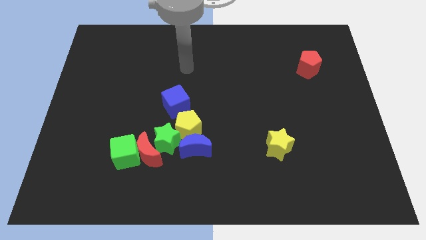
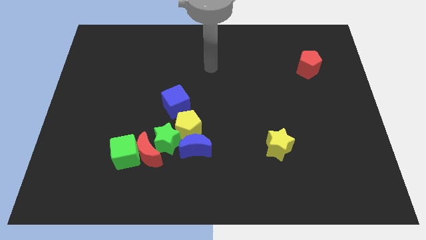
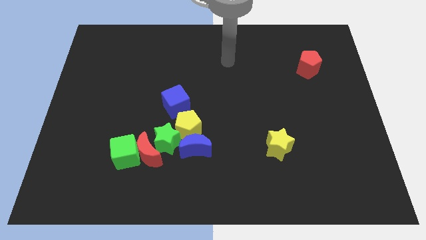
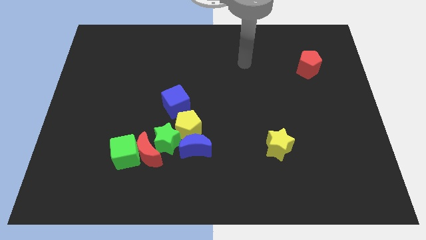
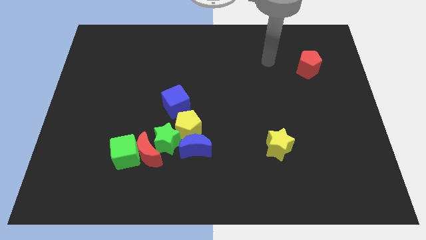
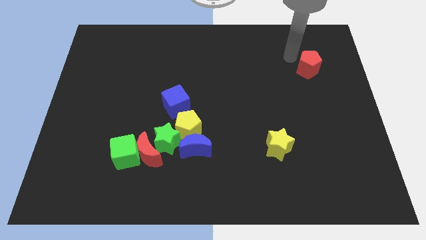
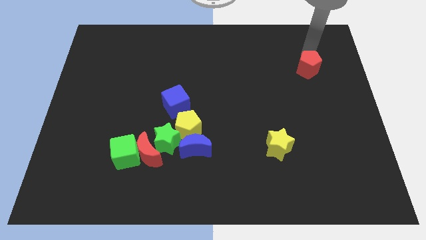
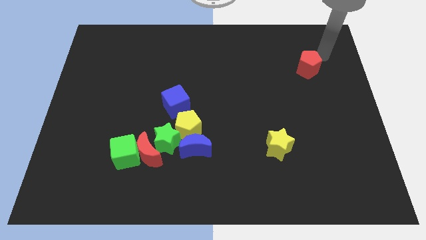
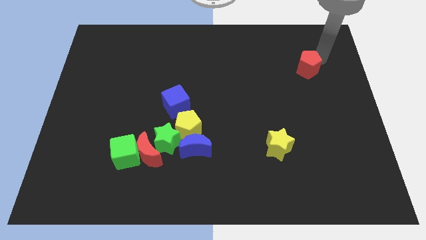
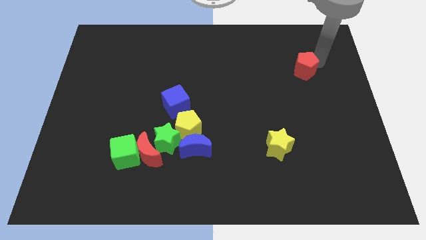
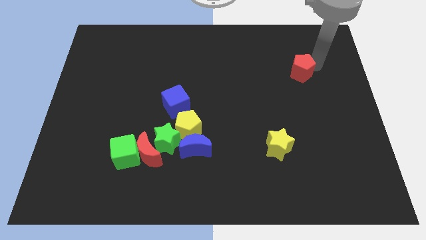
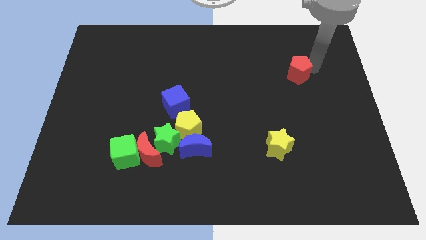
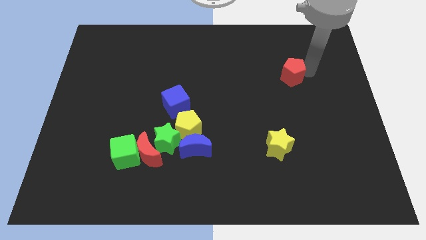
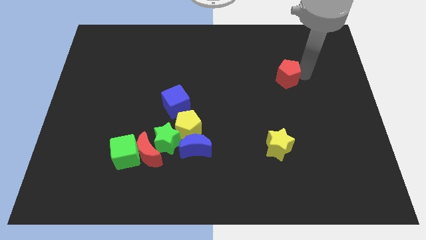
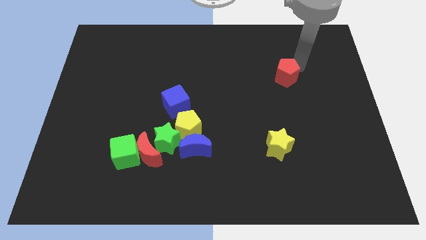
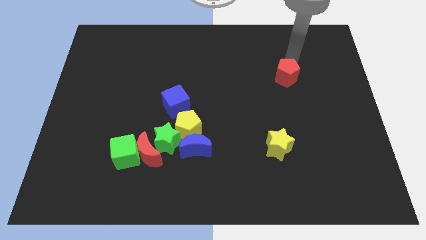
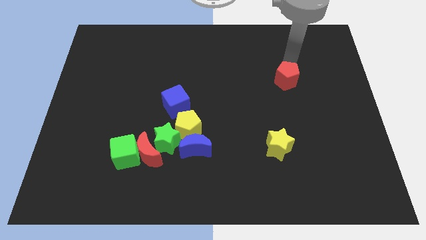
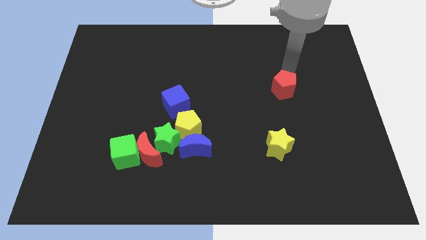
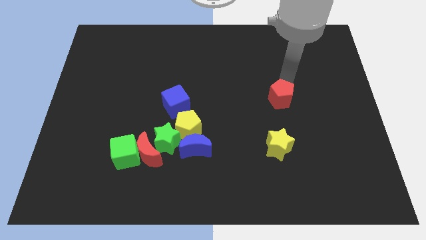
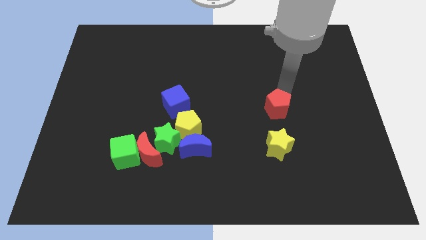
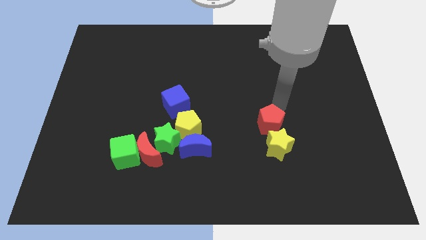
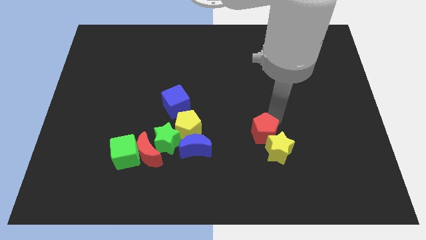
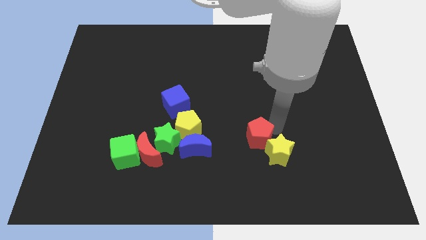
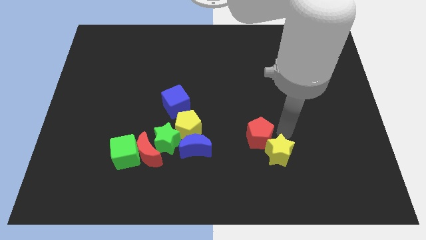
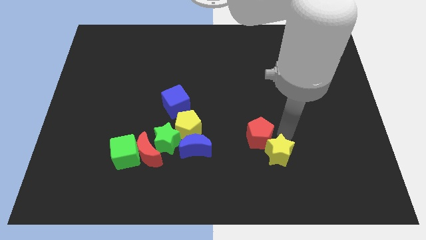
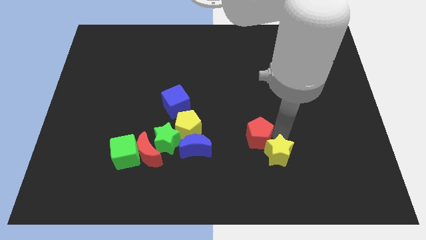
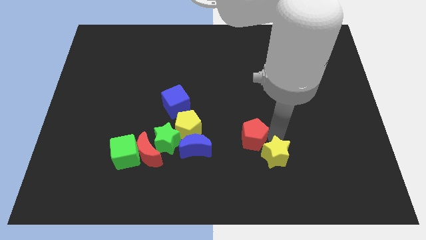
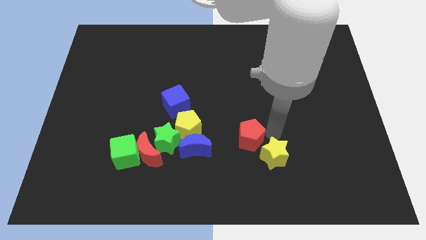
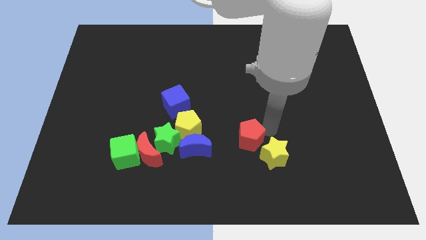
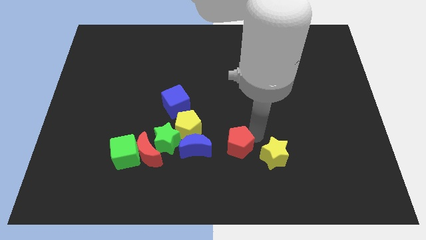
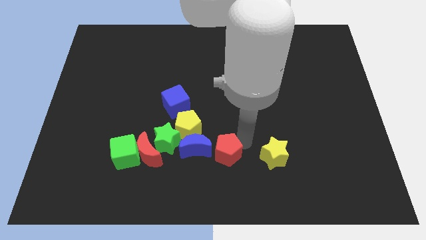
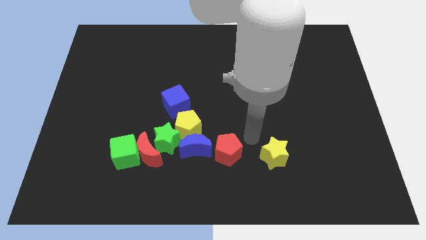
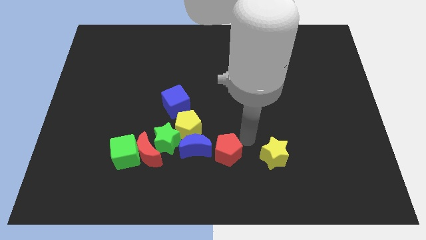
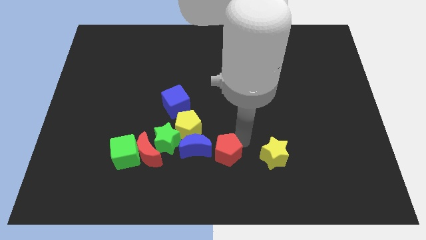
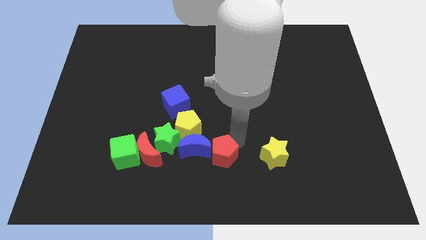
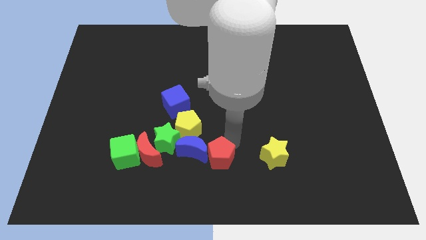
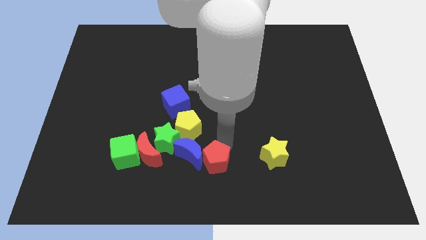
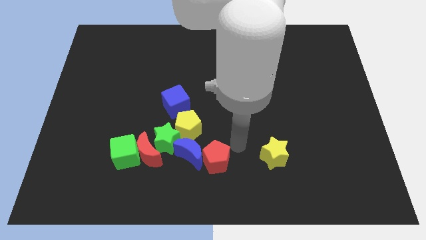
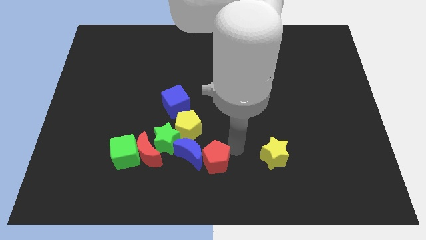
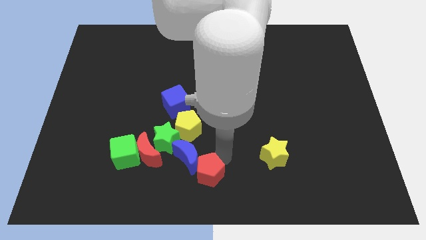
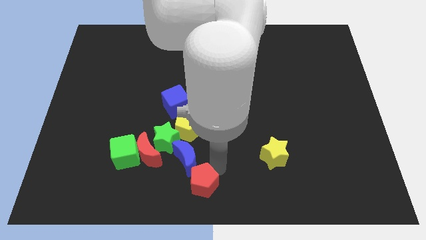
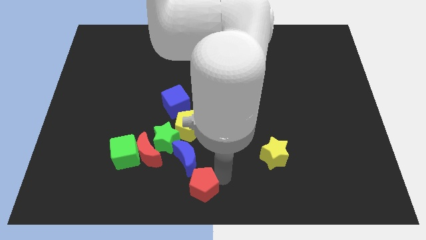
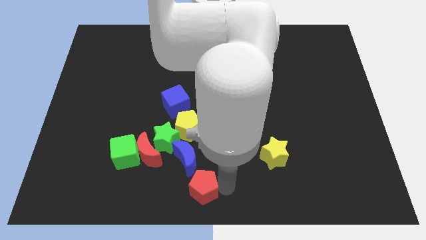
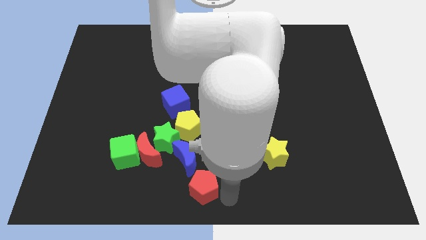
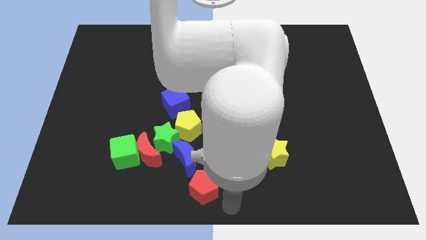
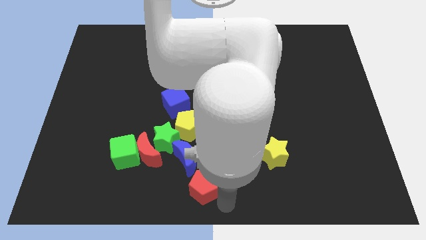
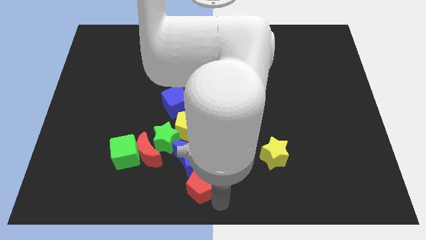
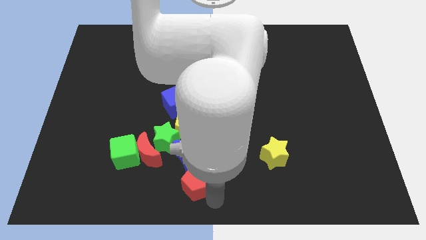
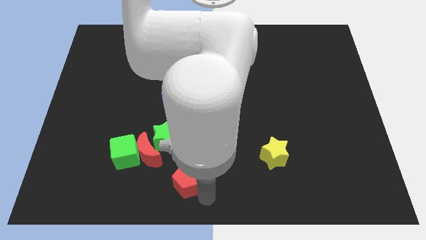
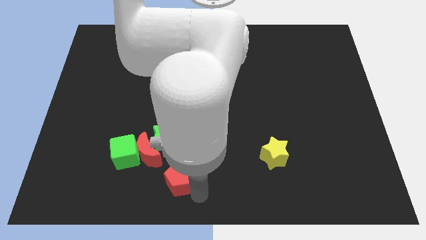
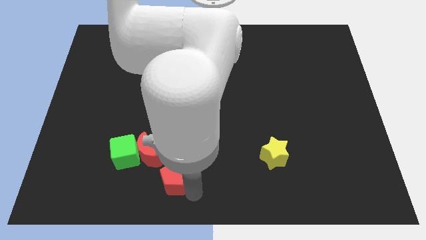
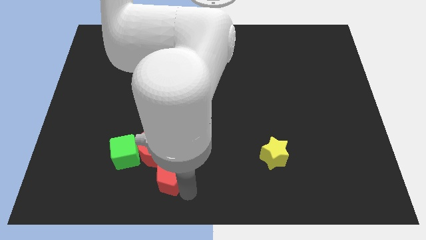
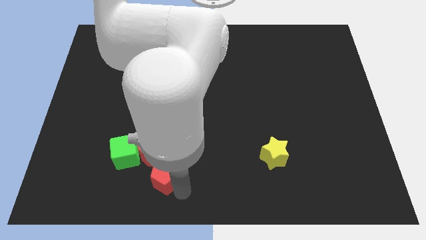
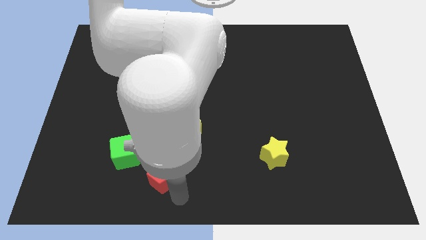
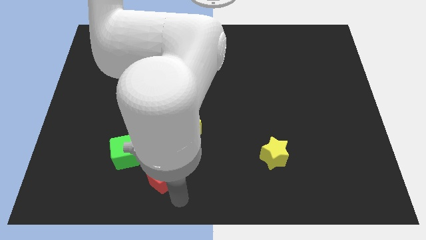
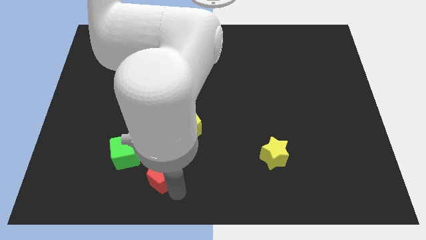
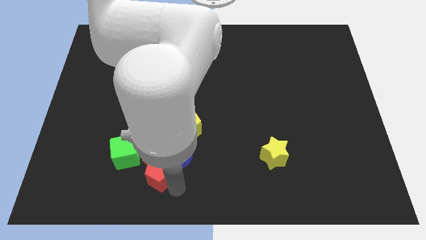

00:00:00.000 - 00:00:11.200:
slide the red pentagon to the red moon

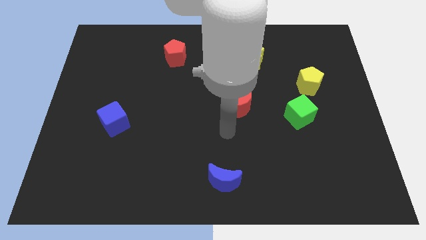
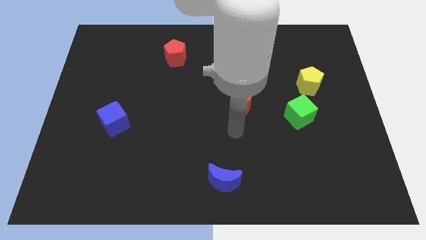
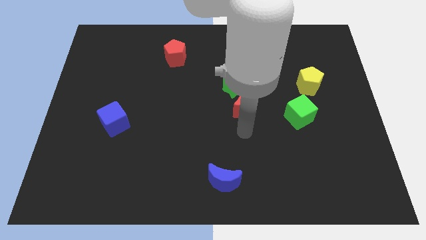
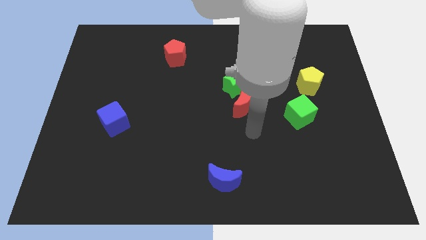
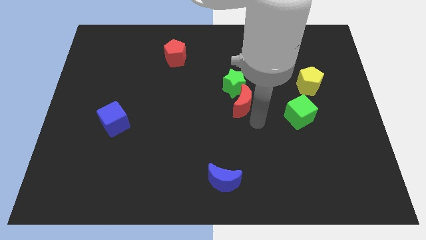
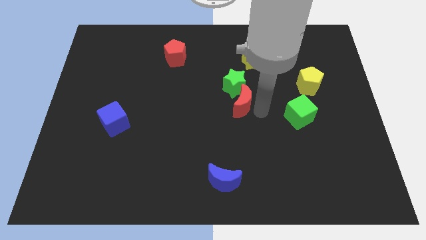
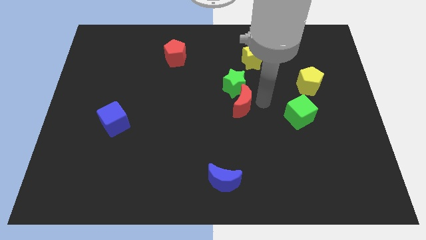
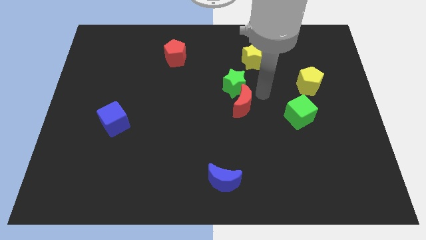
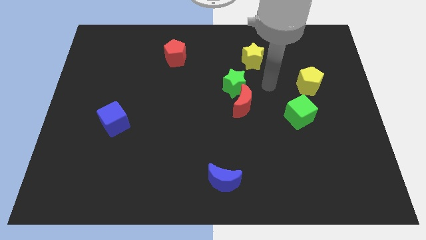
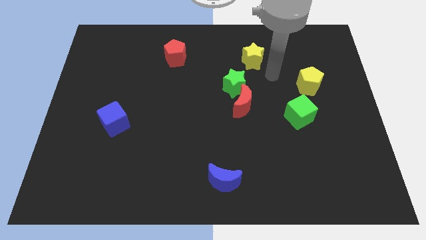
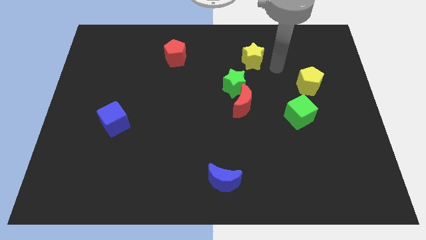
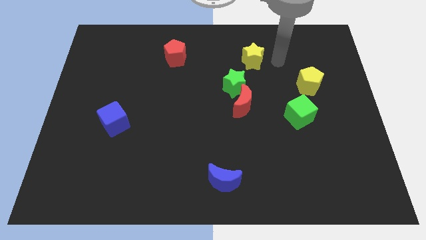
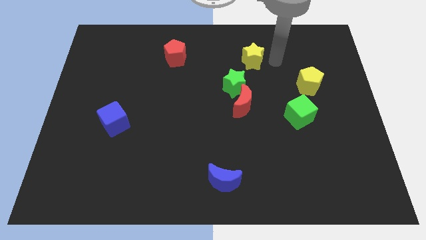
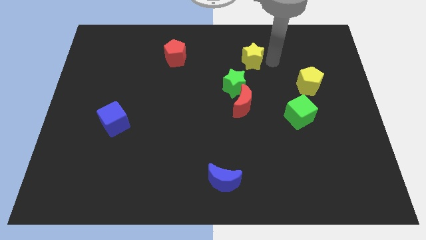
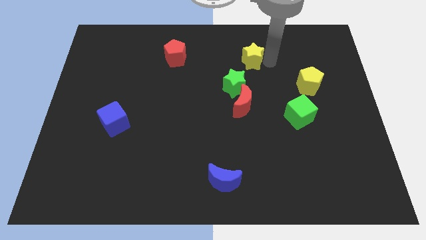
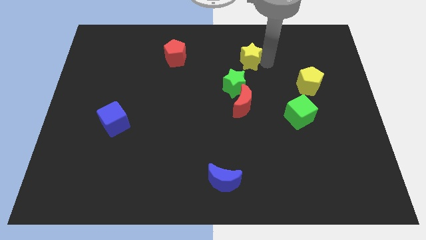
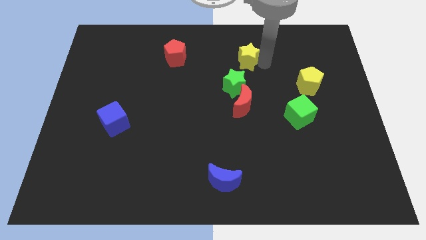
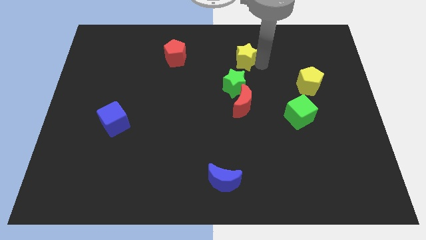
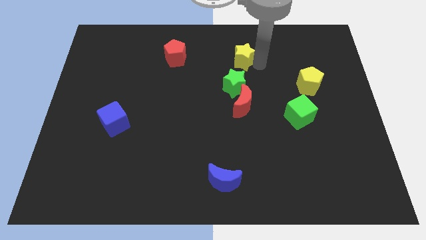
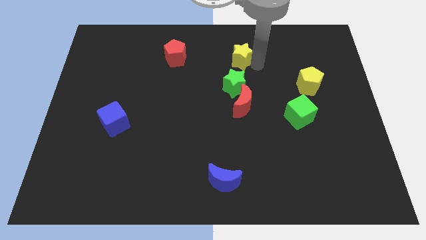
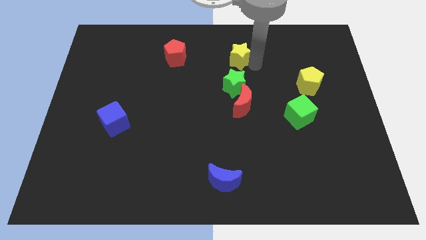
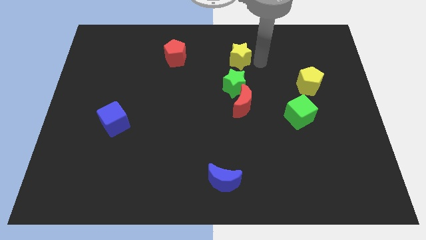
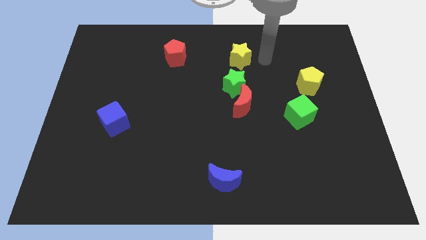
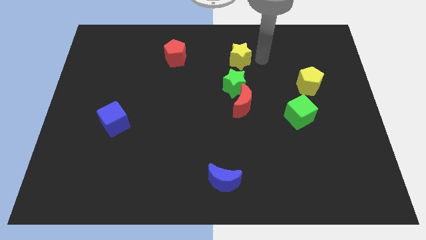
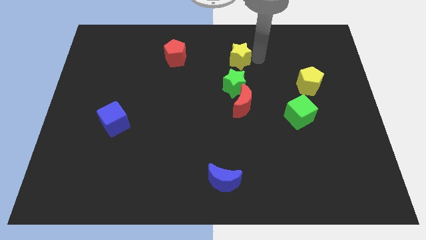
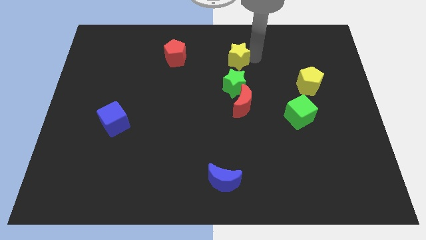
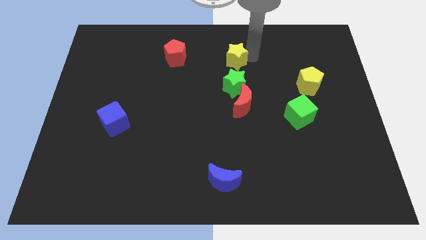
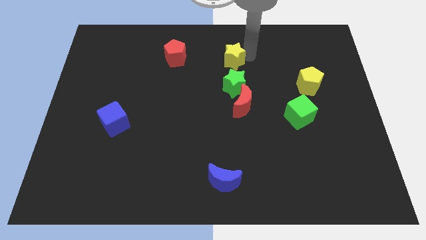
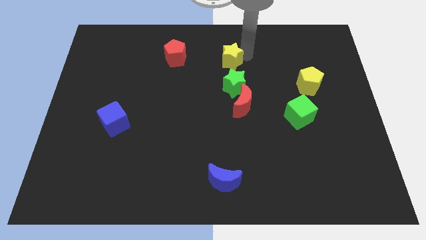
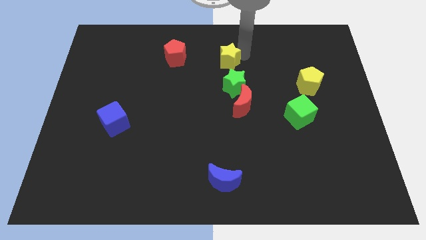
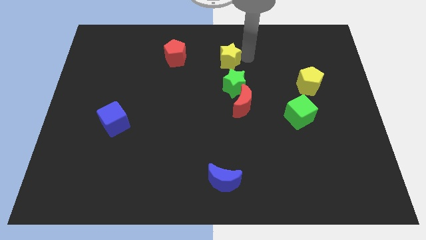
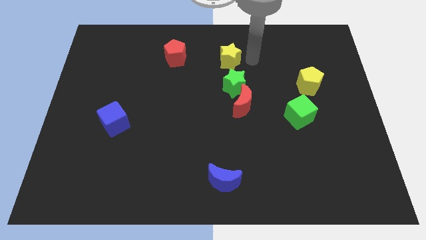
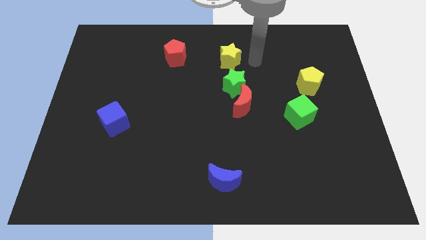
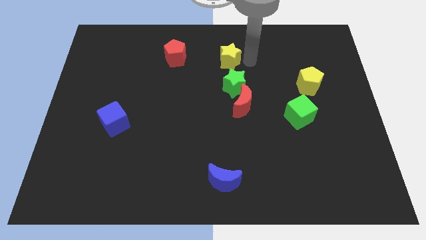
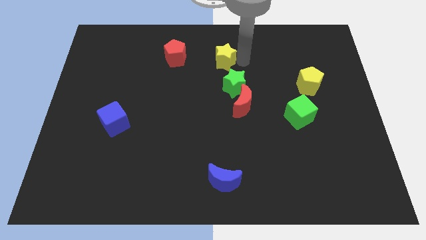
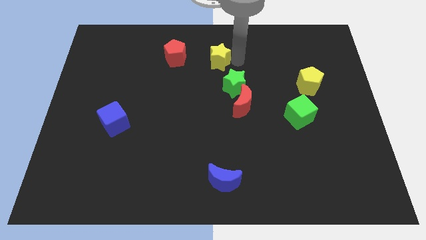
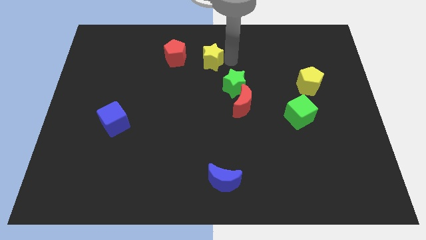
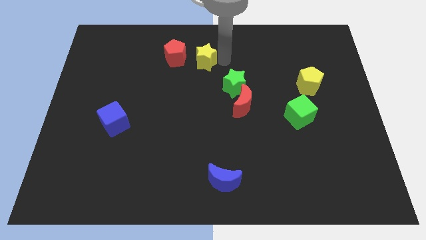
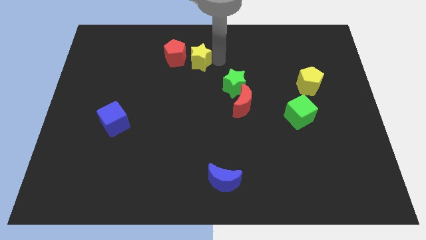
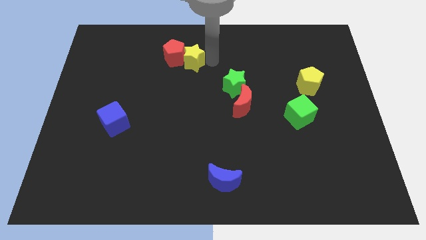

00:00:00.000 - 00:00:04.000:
move the yellow star towards the red pentagon
